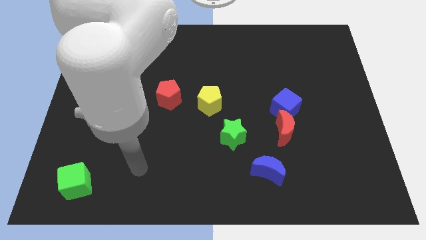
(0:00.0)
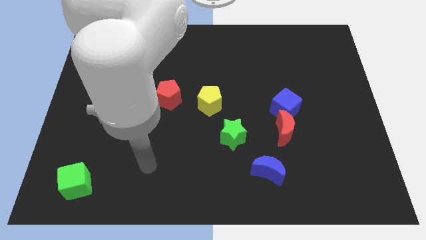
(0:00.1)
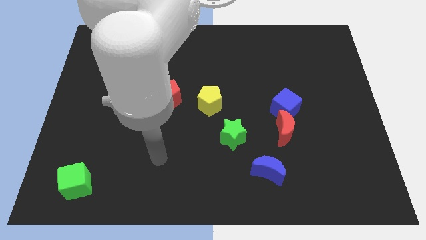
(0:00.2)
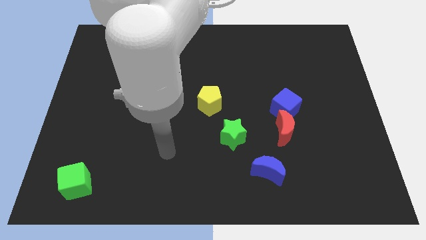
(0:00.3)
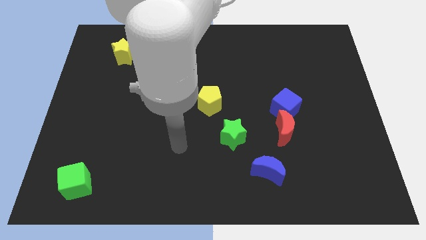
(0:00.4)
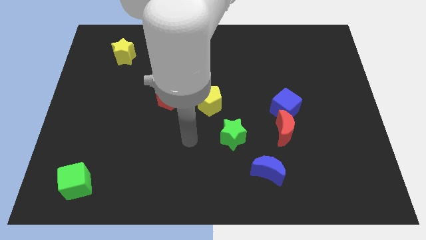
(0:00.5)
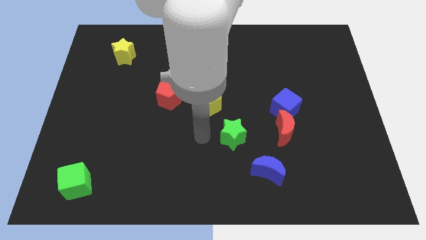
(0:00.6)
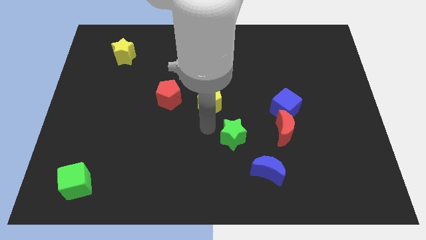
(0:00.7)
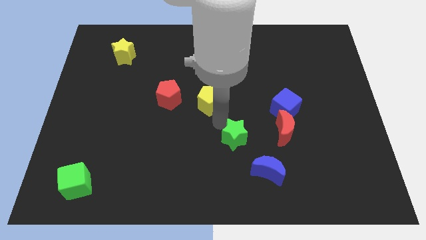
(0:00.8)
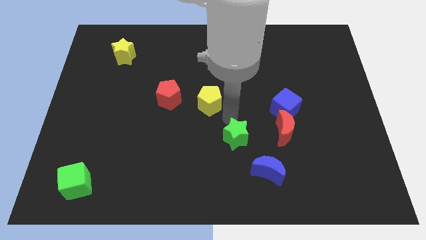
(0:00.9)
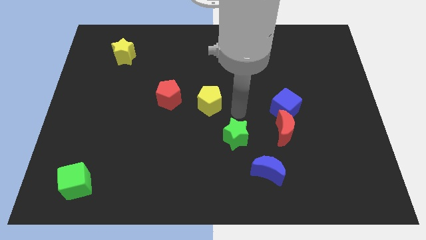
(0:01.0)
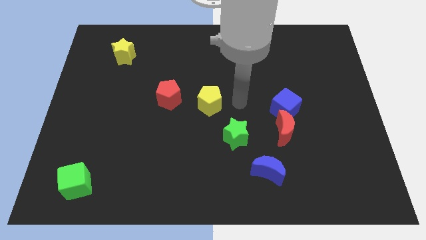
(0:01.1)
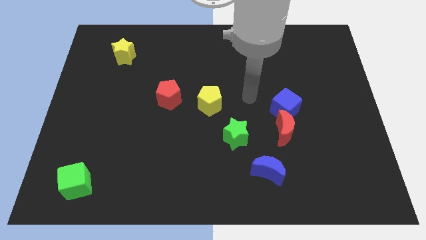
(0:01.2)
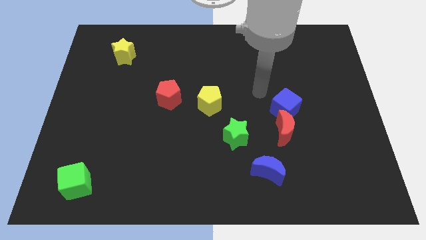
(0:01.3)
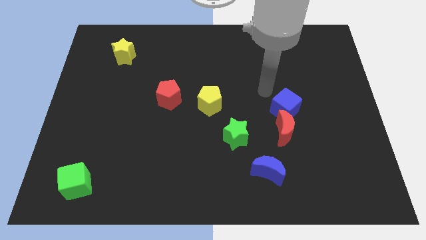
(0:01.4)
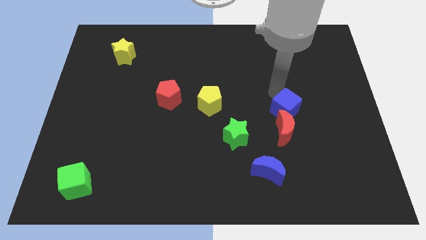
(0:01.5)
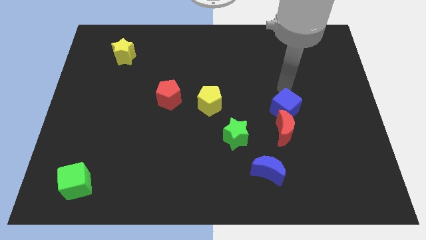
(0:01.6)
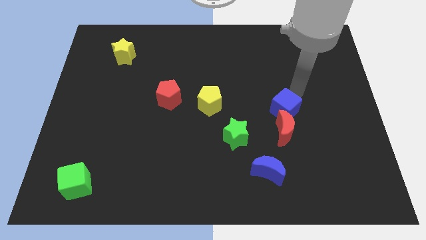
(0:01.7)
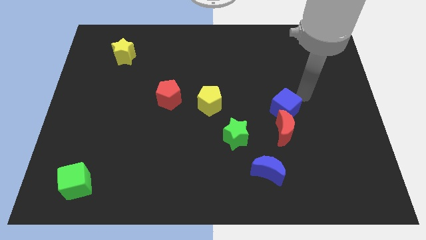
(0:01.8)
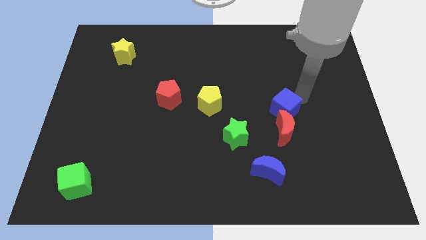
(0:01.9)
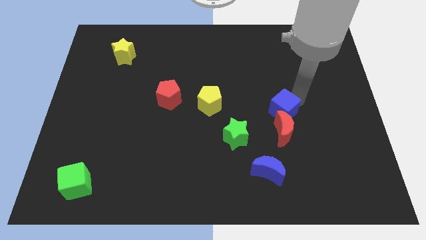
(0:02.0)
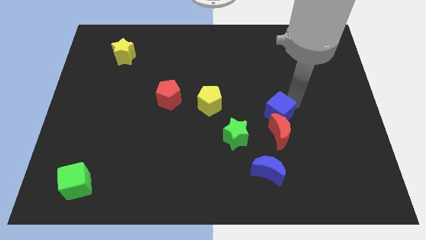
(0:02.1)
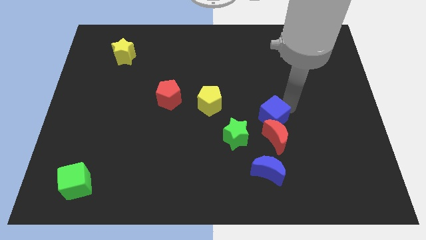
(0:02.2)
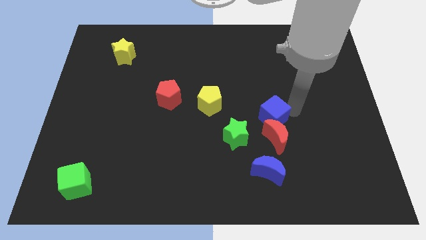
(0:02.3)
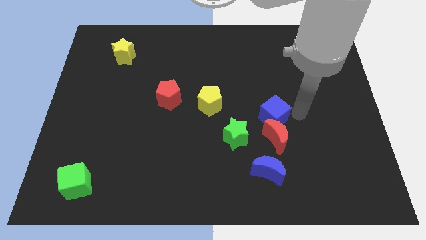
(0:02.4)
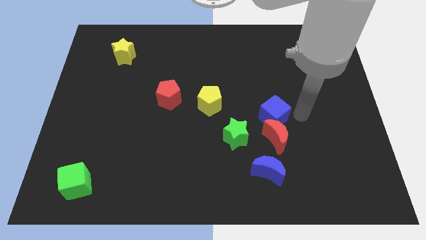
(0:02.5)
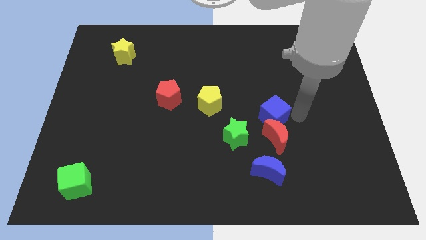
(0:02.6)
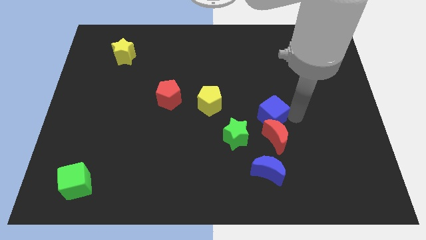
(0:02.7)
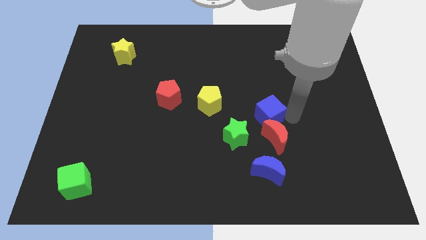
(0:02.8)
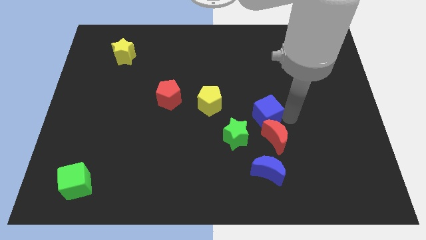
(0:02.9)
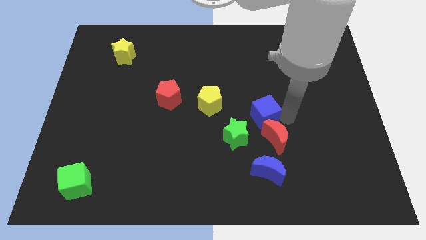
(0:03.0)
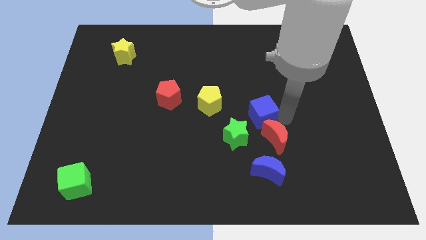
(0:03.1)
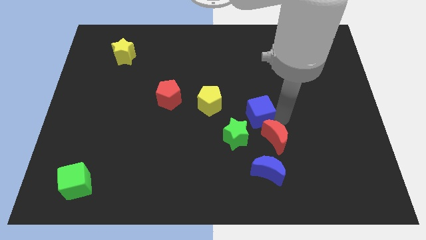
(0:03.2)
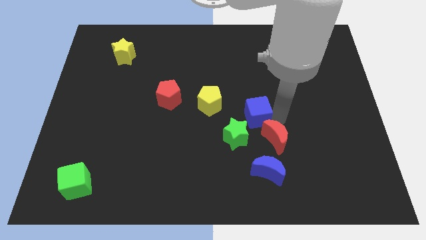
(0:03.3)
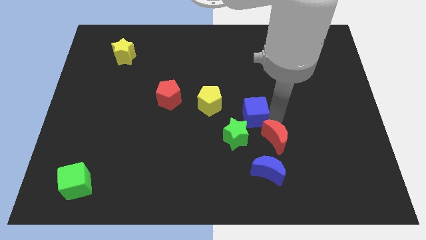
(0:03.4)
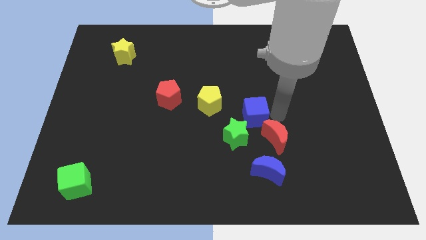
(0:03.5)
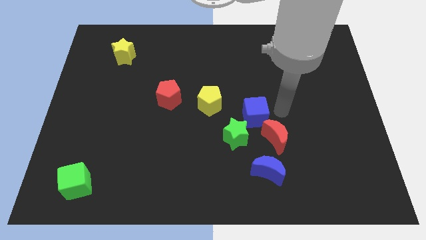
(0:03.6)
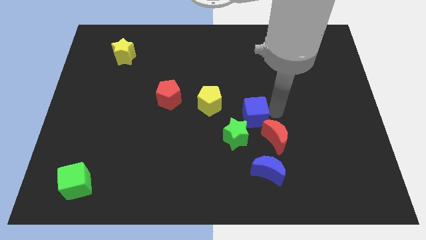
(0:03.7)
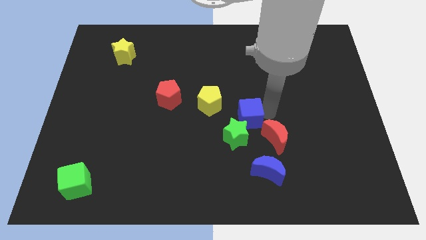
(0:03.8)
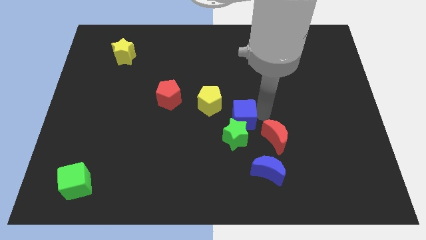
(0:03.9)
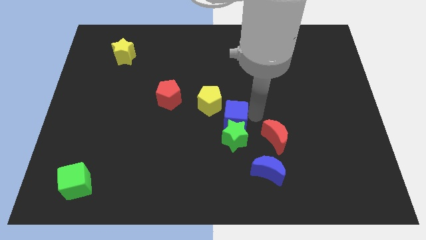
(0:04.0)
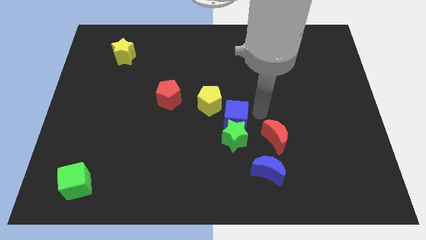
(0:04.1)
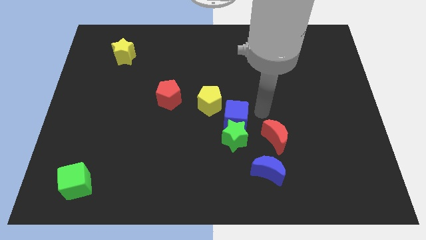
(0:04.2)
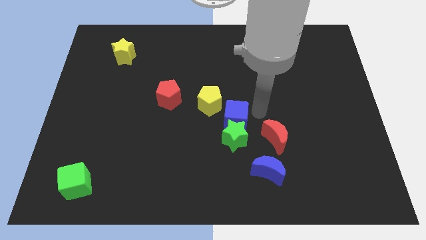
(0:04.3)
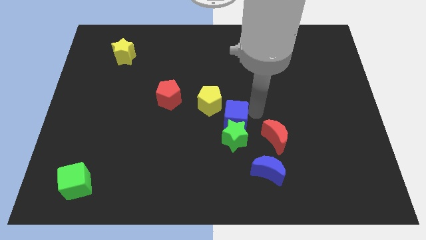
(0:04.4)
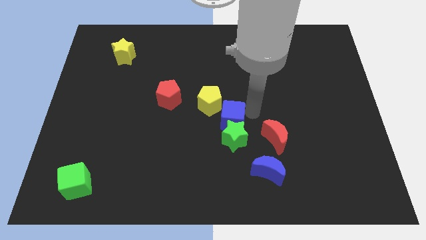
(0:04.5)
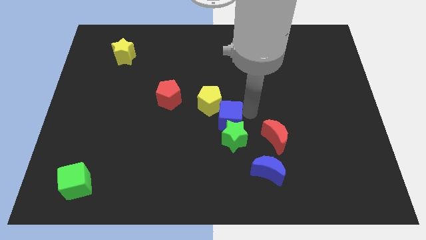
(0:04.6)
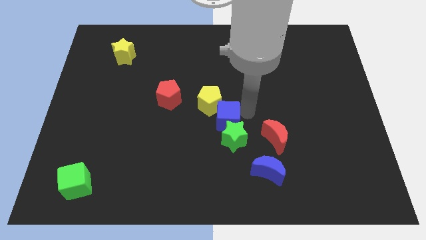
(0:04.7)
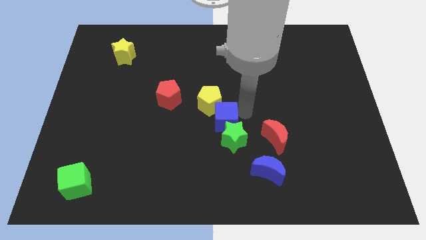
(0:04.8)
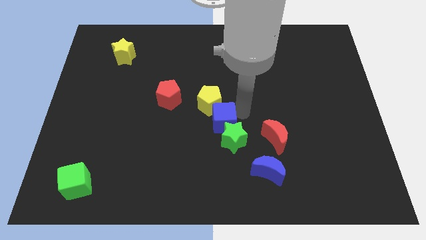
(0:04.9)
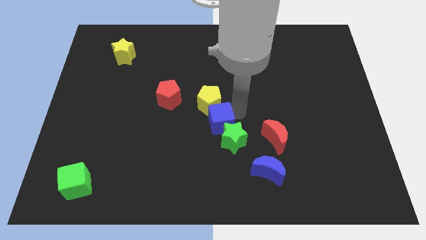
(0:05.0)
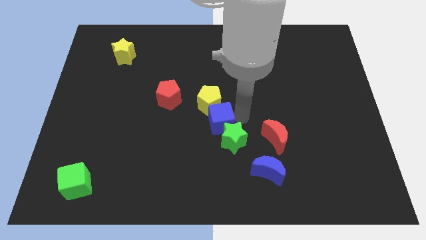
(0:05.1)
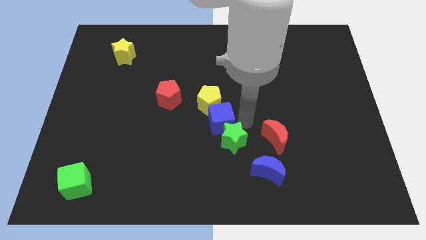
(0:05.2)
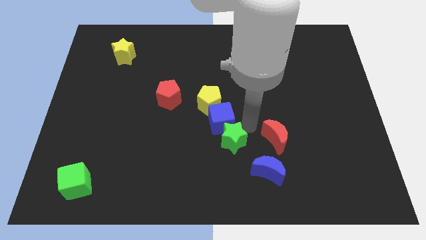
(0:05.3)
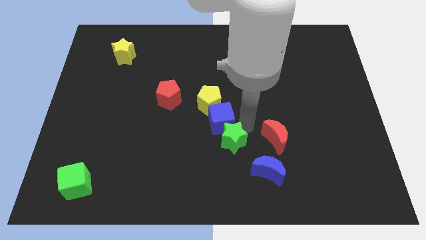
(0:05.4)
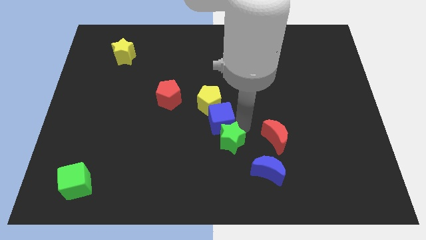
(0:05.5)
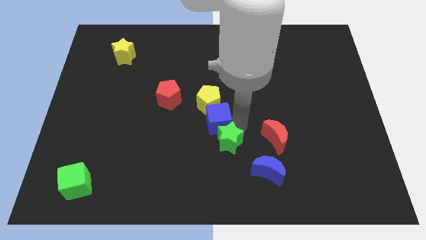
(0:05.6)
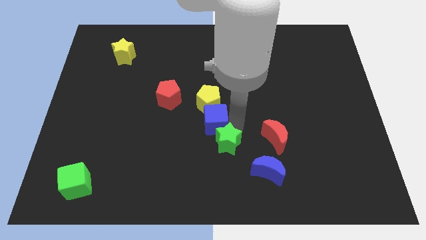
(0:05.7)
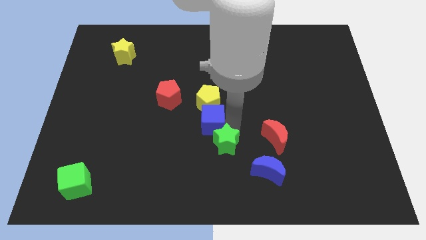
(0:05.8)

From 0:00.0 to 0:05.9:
move the blue cube to the bottom right side of the red pentagon
